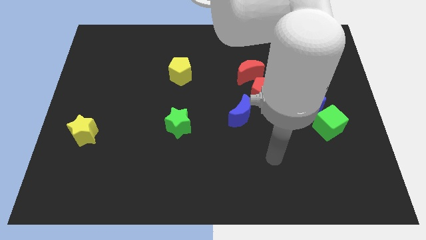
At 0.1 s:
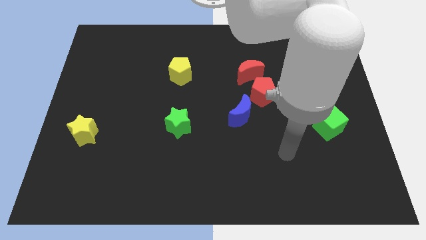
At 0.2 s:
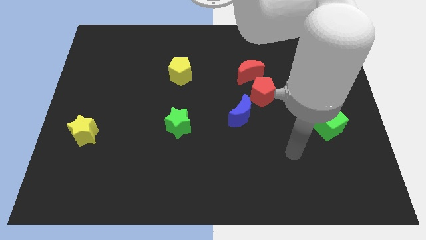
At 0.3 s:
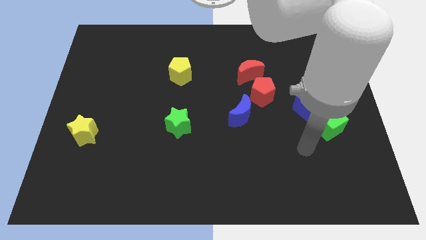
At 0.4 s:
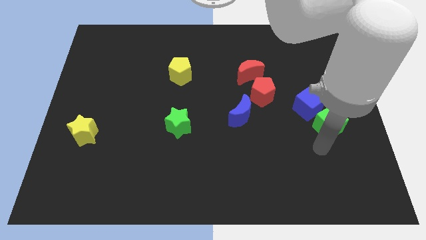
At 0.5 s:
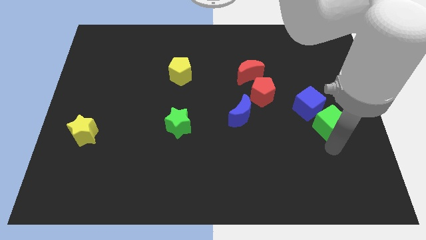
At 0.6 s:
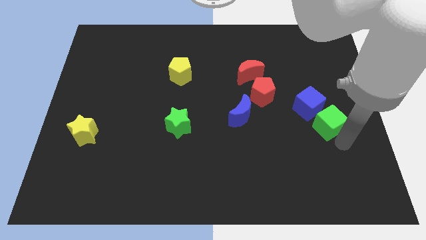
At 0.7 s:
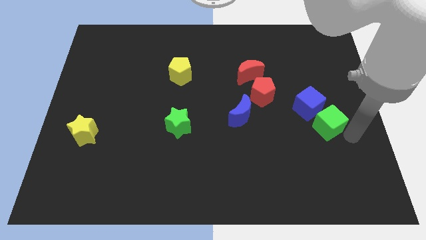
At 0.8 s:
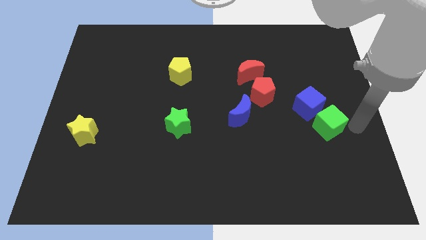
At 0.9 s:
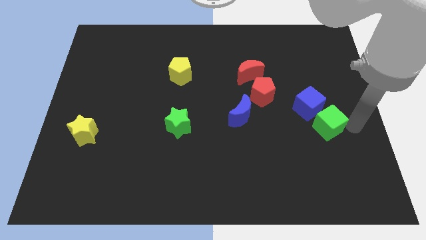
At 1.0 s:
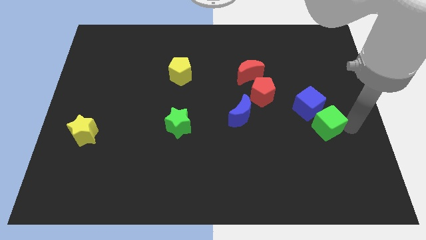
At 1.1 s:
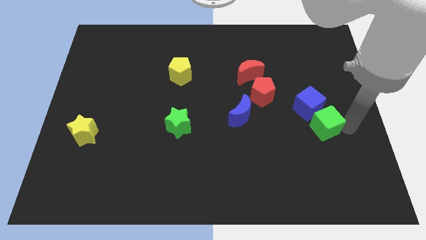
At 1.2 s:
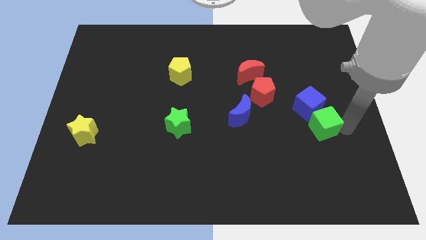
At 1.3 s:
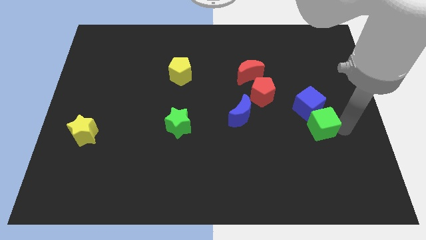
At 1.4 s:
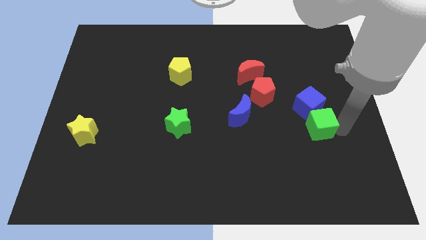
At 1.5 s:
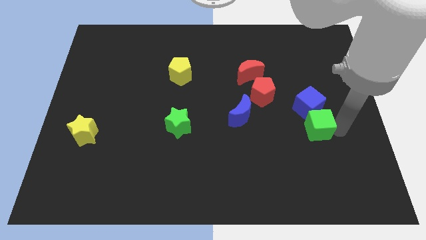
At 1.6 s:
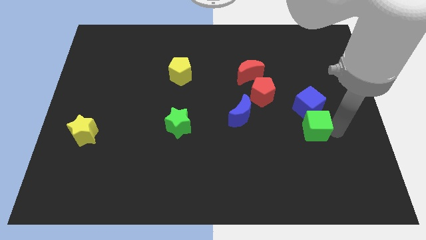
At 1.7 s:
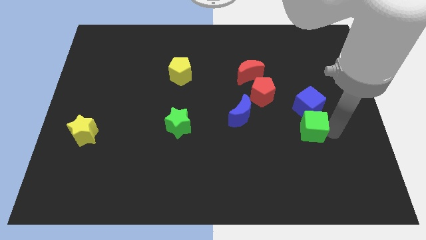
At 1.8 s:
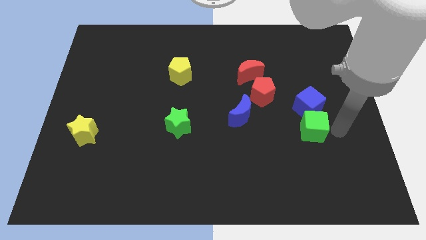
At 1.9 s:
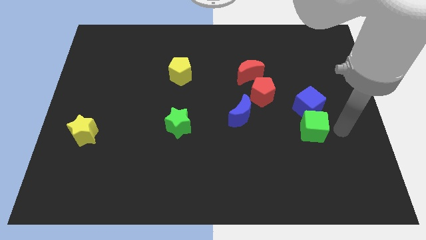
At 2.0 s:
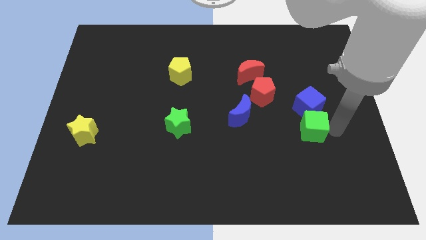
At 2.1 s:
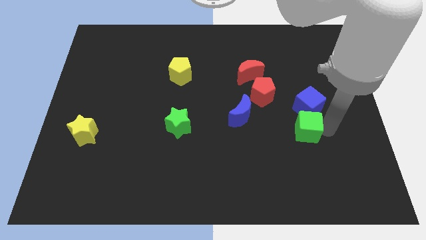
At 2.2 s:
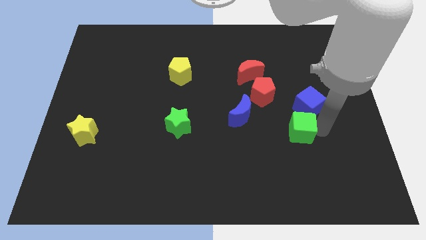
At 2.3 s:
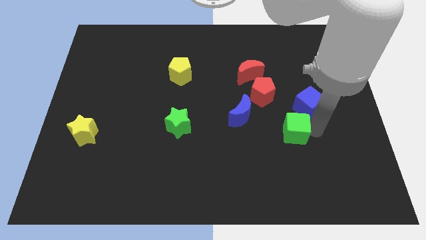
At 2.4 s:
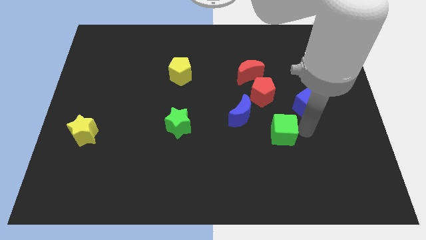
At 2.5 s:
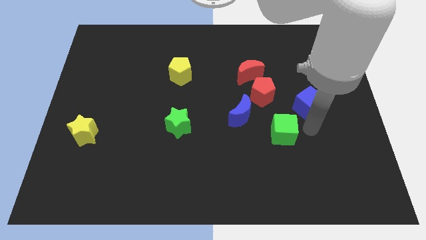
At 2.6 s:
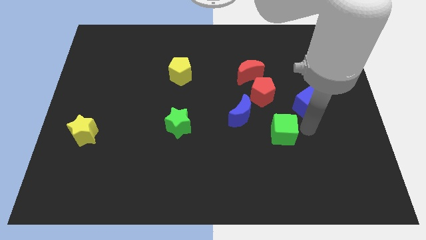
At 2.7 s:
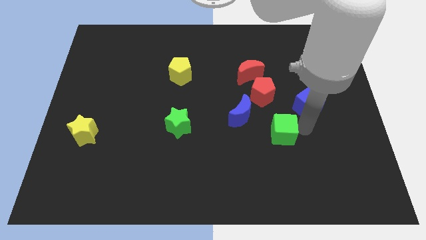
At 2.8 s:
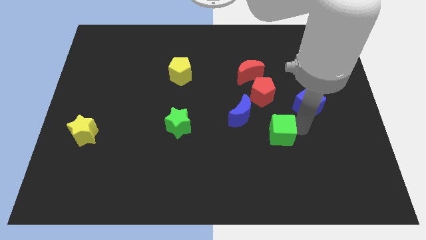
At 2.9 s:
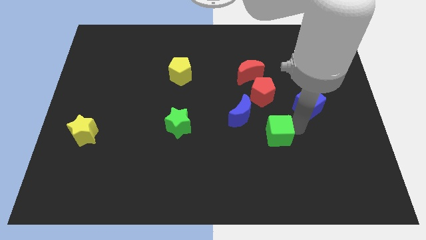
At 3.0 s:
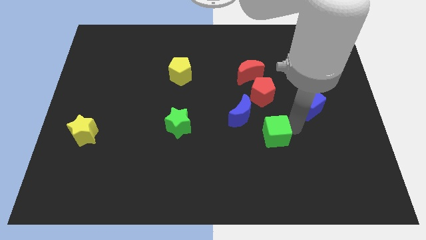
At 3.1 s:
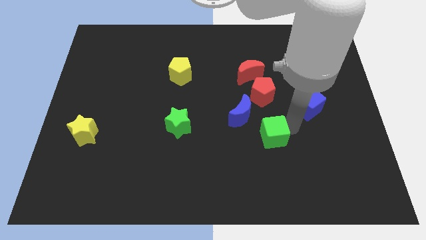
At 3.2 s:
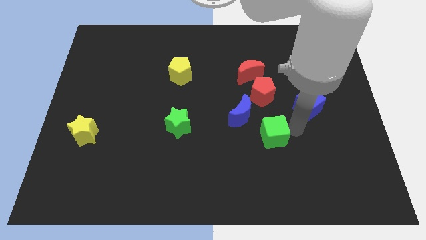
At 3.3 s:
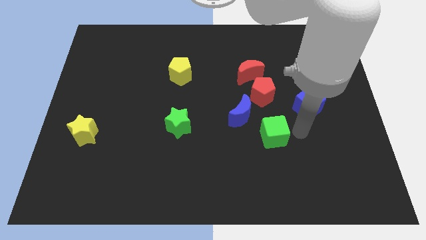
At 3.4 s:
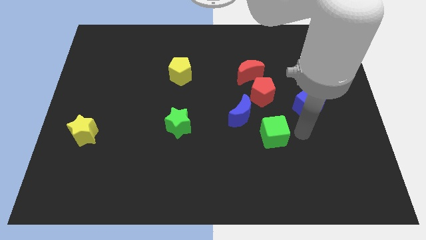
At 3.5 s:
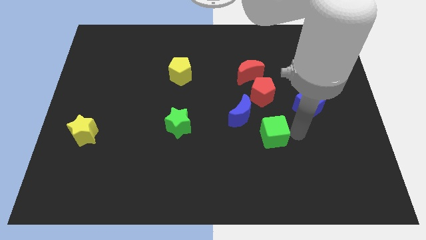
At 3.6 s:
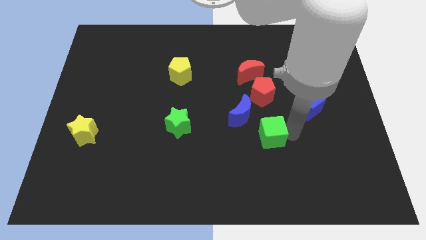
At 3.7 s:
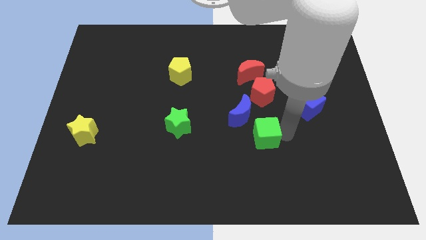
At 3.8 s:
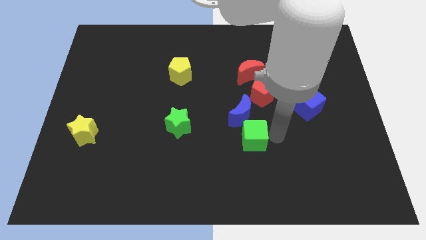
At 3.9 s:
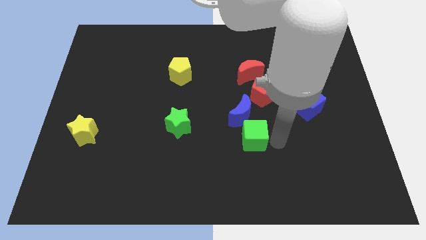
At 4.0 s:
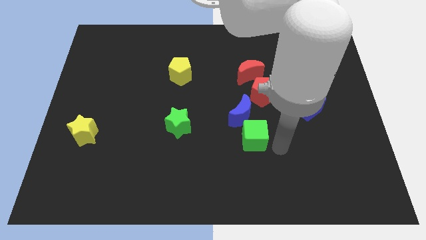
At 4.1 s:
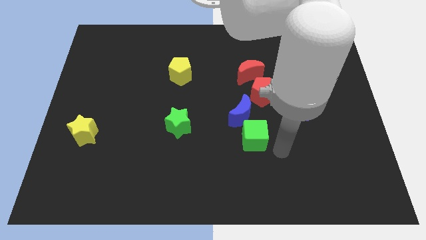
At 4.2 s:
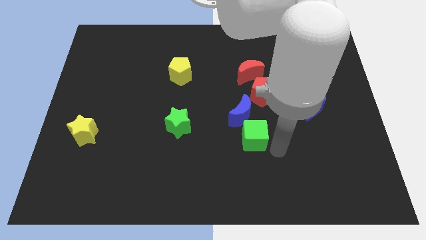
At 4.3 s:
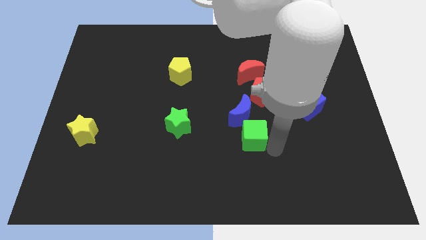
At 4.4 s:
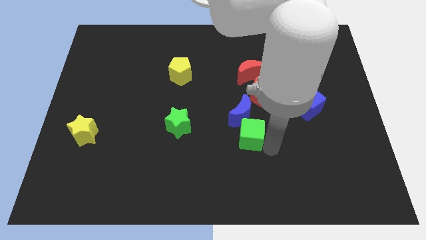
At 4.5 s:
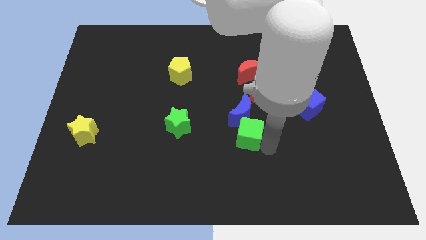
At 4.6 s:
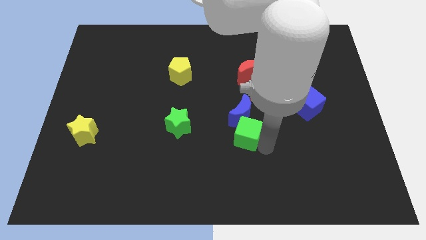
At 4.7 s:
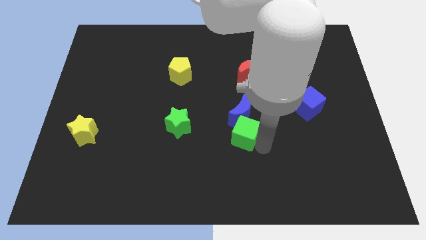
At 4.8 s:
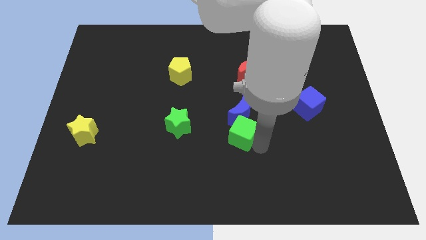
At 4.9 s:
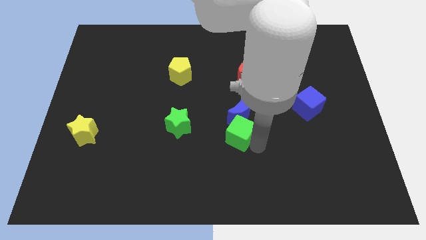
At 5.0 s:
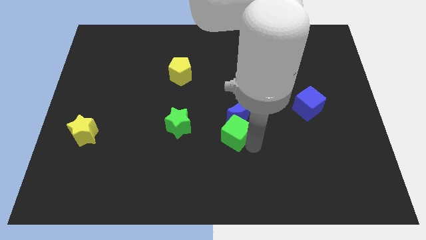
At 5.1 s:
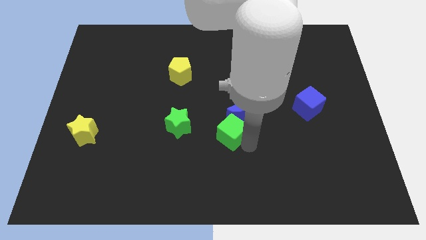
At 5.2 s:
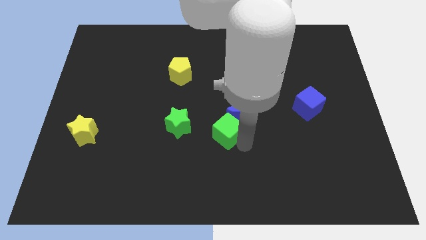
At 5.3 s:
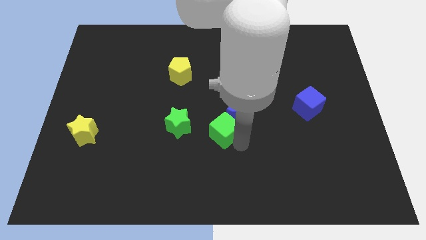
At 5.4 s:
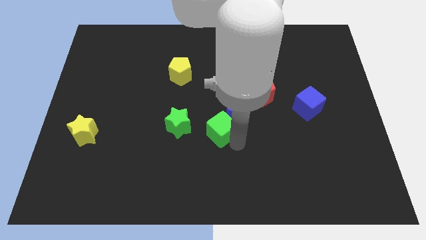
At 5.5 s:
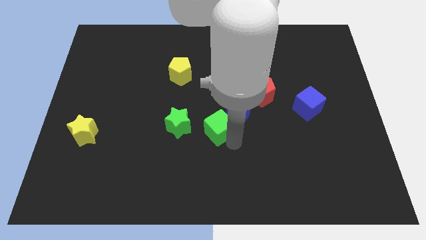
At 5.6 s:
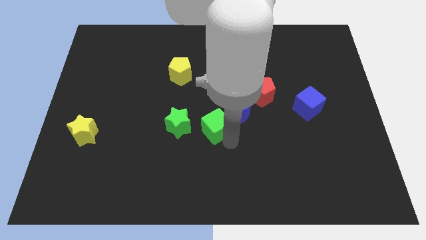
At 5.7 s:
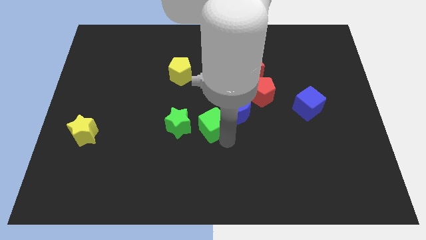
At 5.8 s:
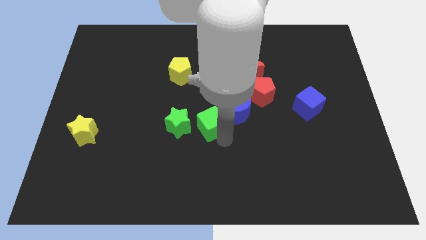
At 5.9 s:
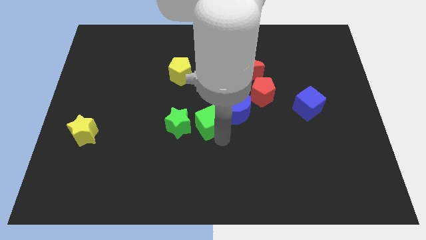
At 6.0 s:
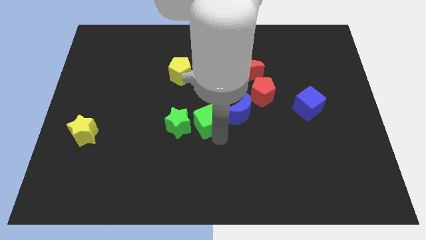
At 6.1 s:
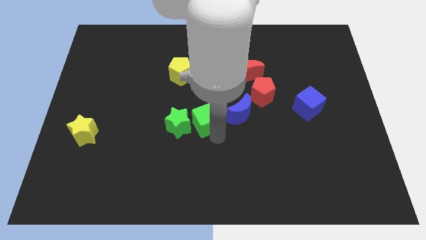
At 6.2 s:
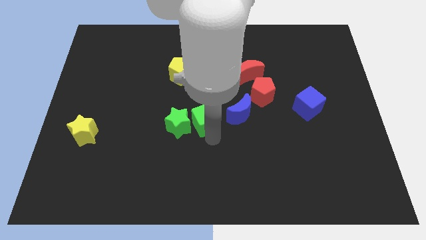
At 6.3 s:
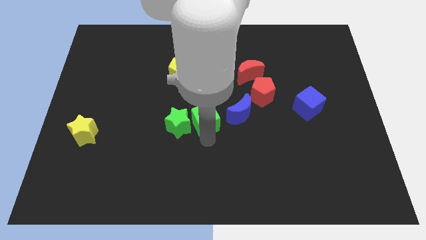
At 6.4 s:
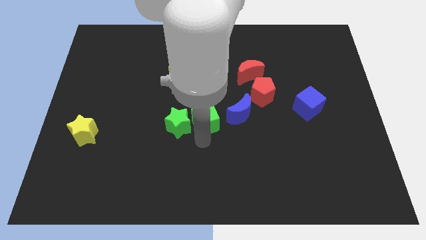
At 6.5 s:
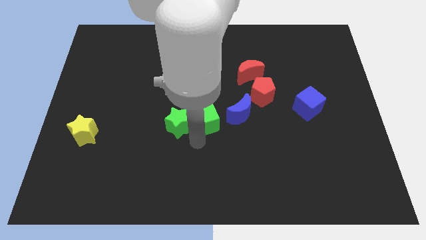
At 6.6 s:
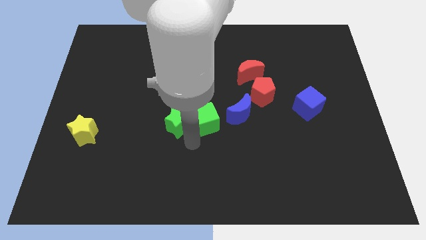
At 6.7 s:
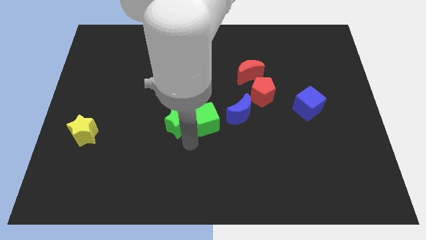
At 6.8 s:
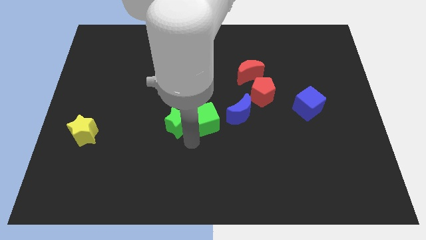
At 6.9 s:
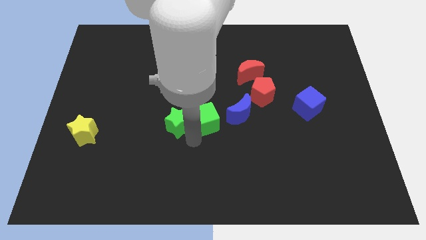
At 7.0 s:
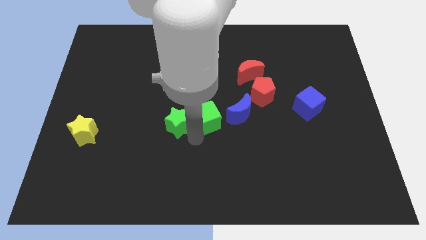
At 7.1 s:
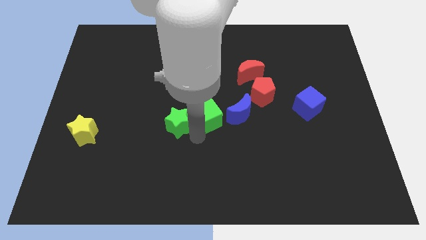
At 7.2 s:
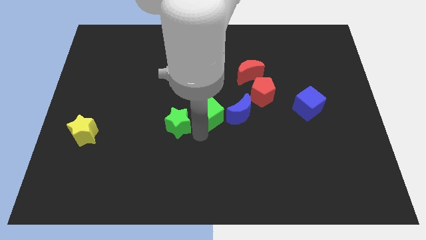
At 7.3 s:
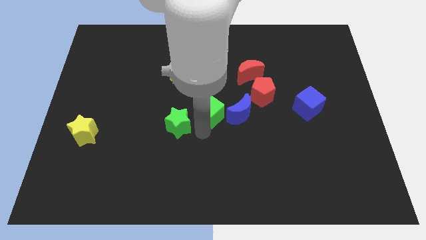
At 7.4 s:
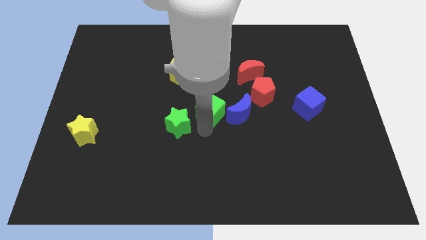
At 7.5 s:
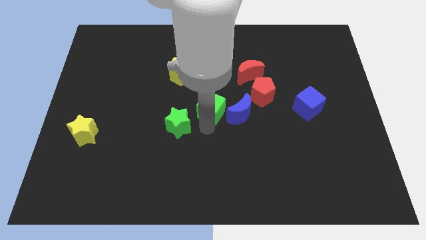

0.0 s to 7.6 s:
put the green cube to the left side of the red pentagon
